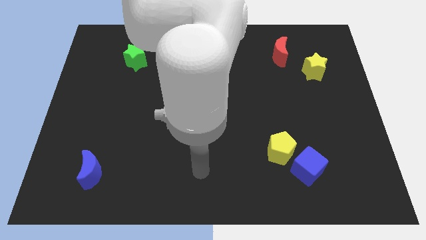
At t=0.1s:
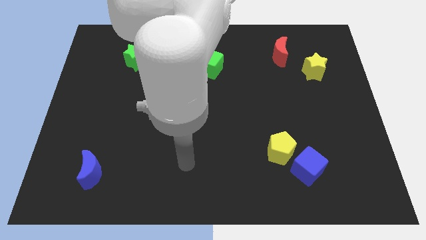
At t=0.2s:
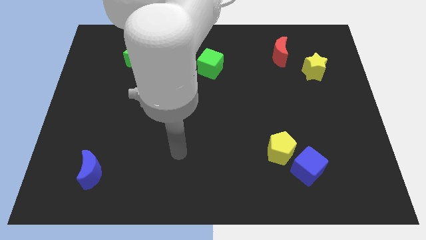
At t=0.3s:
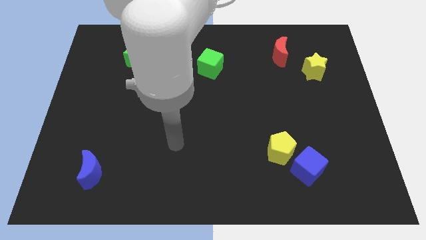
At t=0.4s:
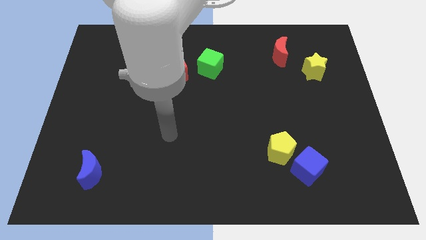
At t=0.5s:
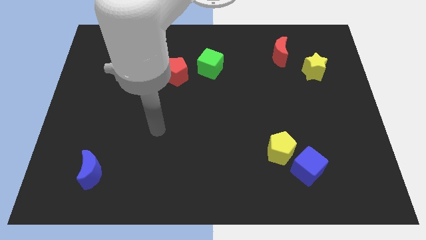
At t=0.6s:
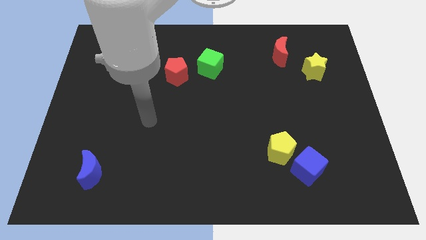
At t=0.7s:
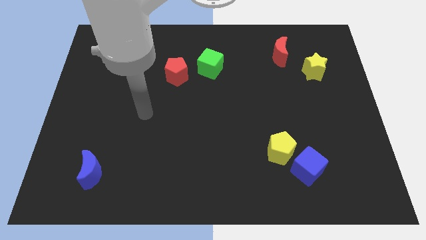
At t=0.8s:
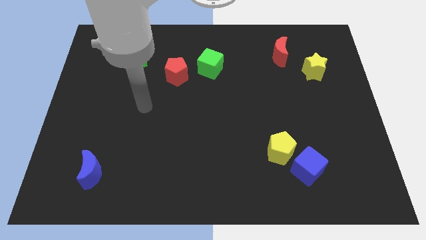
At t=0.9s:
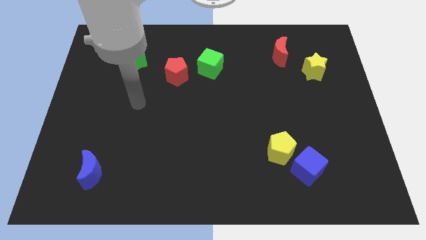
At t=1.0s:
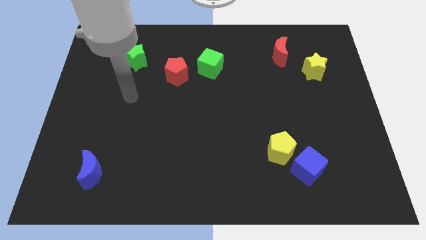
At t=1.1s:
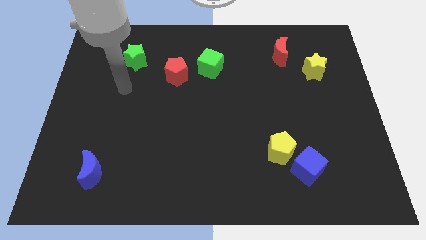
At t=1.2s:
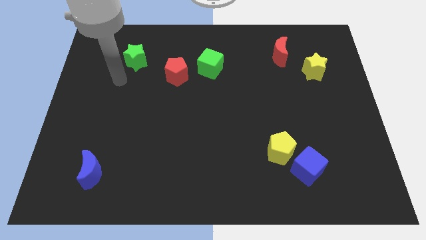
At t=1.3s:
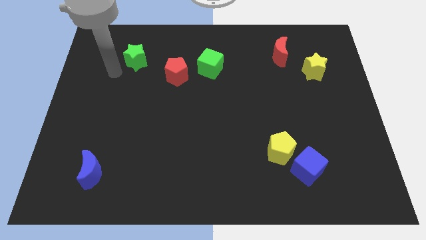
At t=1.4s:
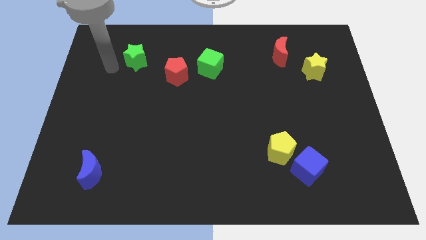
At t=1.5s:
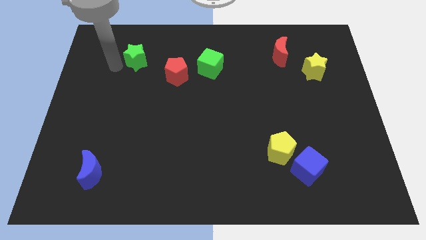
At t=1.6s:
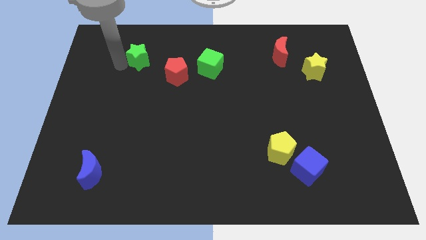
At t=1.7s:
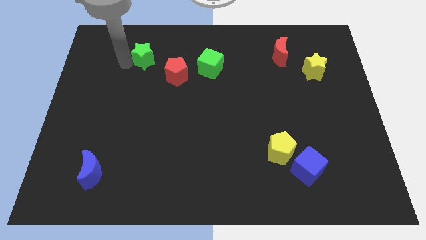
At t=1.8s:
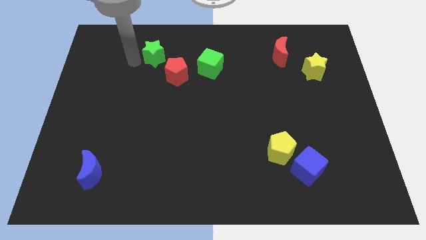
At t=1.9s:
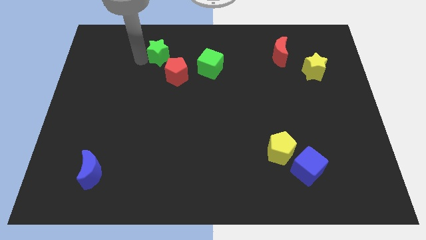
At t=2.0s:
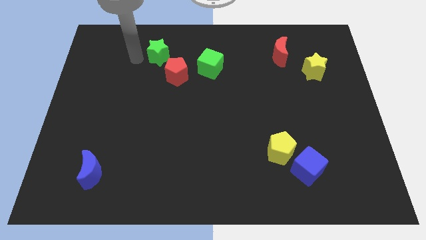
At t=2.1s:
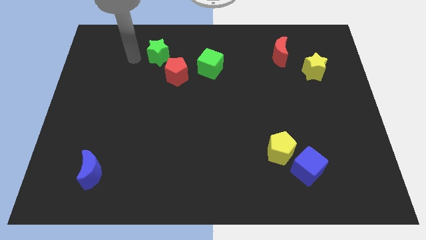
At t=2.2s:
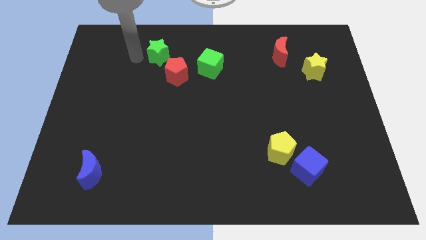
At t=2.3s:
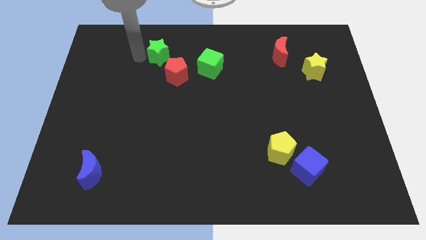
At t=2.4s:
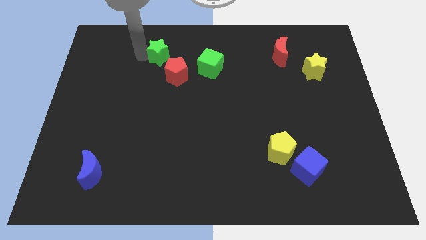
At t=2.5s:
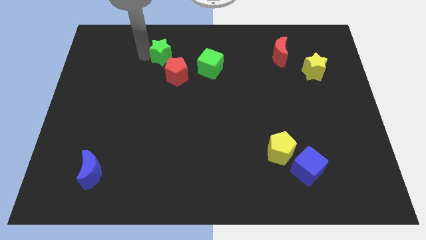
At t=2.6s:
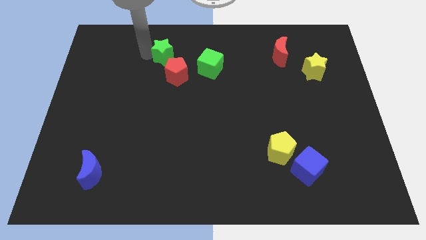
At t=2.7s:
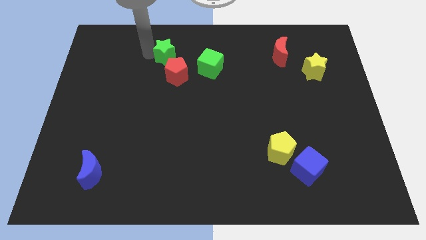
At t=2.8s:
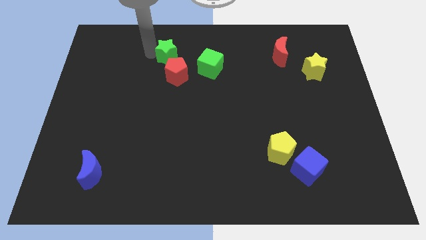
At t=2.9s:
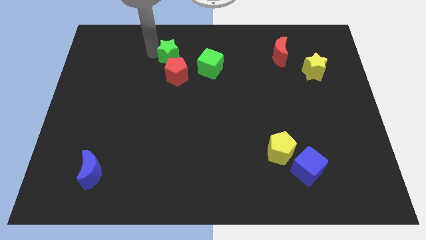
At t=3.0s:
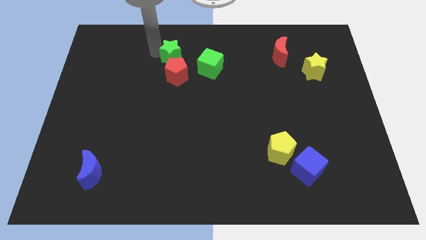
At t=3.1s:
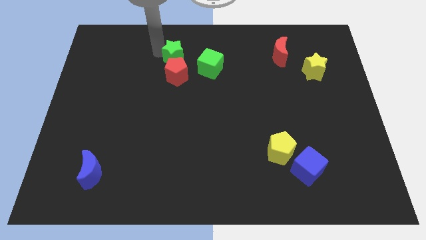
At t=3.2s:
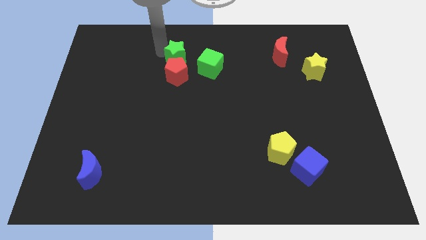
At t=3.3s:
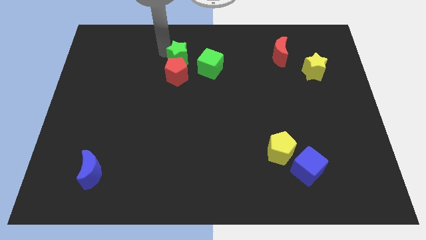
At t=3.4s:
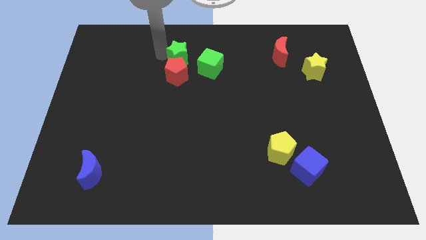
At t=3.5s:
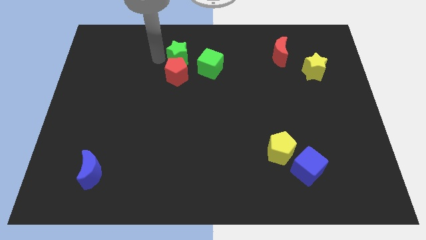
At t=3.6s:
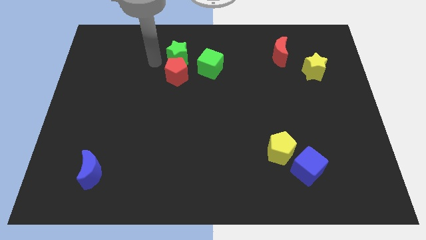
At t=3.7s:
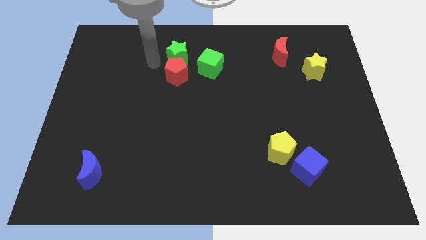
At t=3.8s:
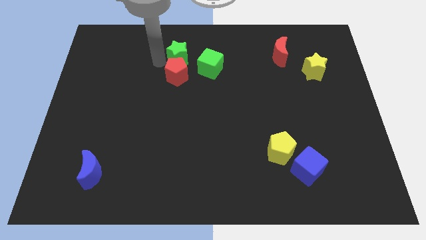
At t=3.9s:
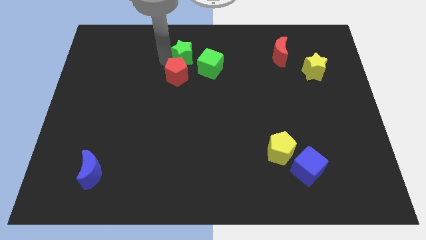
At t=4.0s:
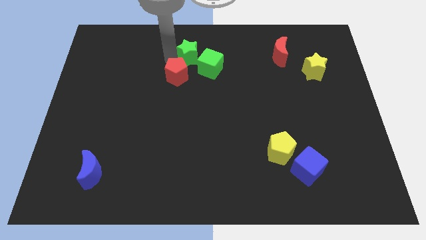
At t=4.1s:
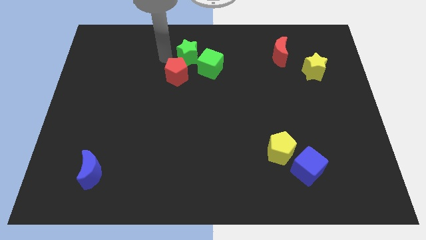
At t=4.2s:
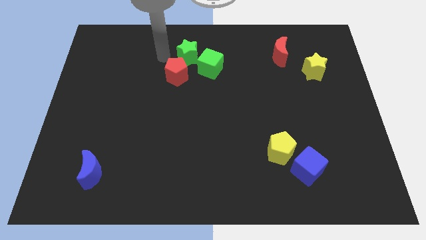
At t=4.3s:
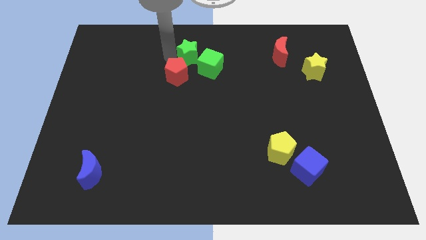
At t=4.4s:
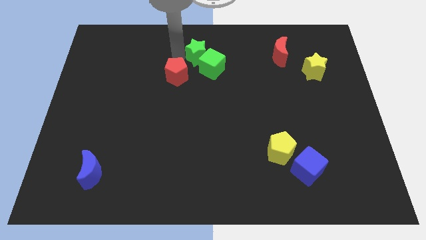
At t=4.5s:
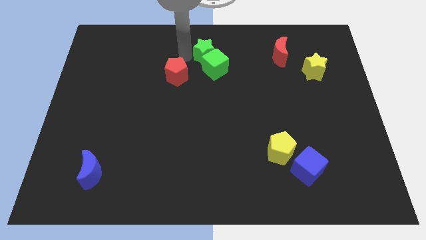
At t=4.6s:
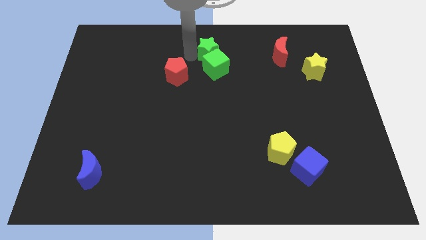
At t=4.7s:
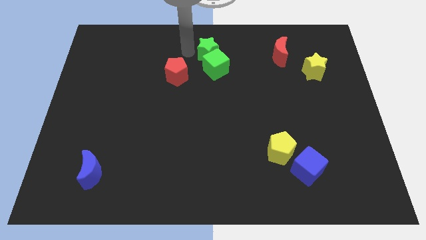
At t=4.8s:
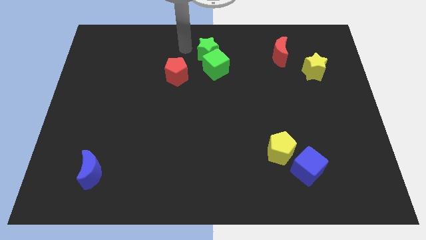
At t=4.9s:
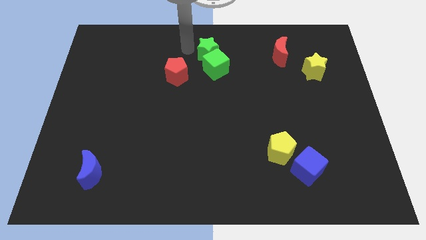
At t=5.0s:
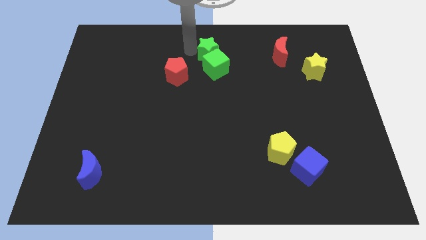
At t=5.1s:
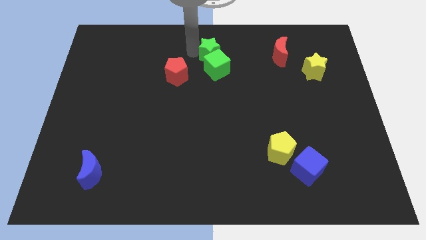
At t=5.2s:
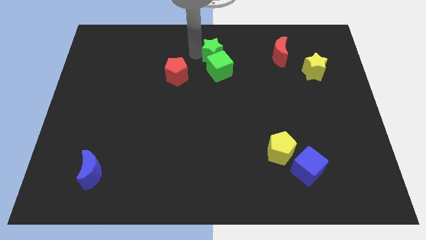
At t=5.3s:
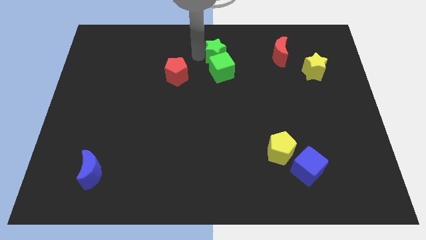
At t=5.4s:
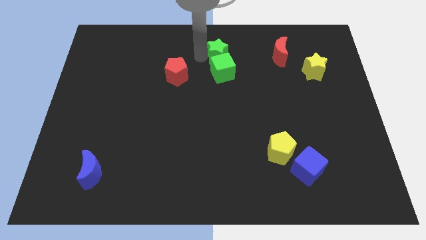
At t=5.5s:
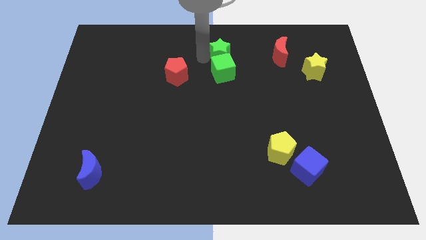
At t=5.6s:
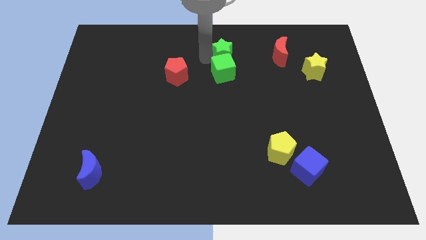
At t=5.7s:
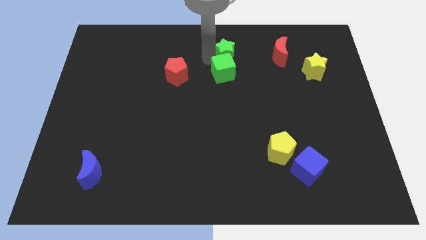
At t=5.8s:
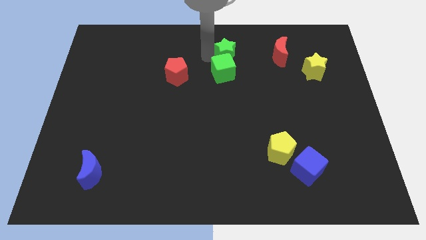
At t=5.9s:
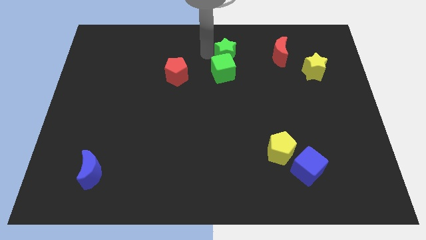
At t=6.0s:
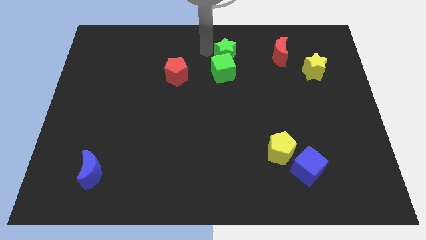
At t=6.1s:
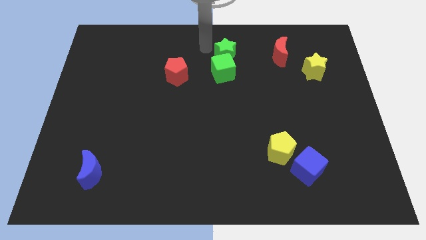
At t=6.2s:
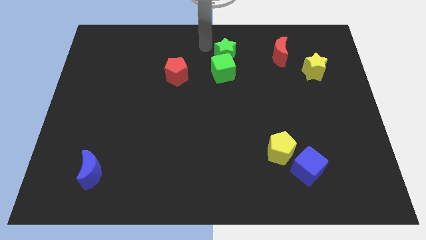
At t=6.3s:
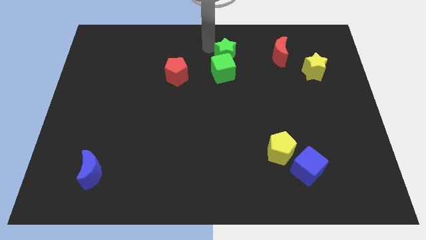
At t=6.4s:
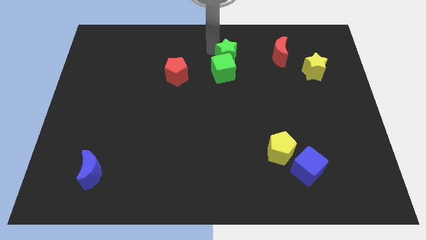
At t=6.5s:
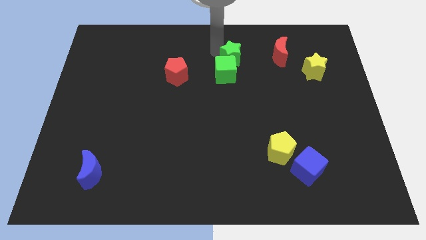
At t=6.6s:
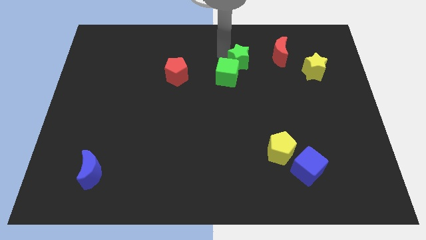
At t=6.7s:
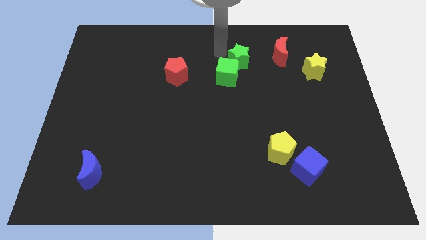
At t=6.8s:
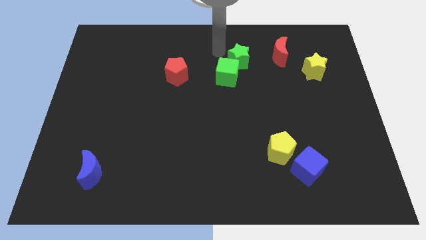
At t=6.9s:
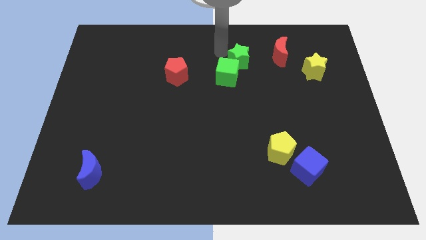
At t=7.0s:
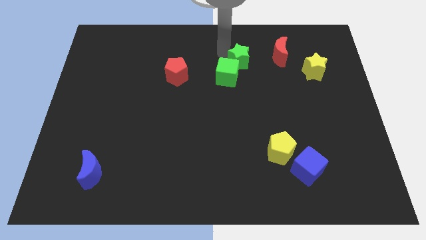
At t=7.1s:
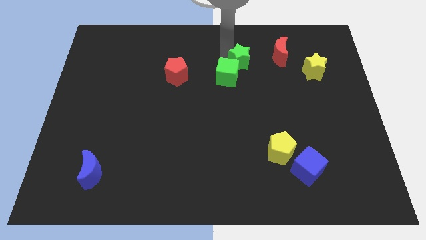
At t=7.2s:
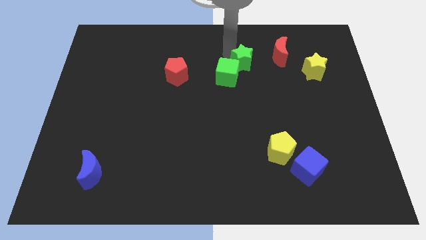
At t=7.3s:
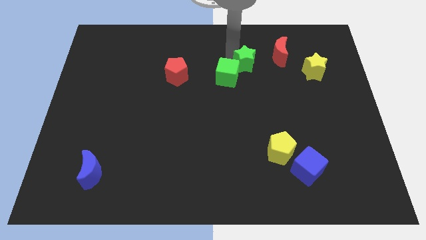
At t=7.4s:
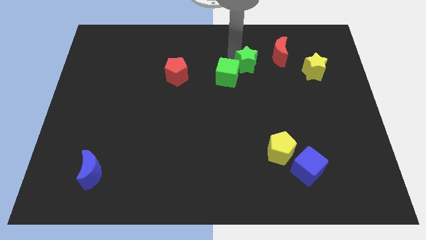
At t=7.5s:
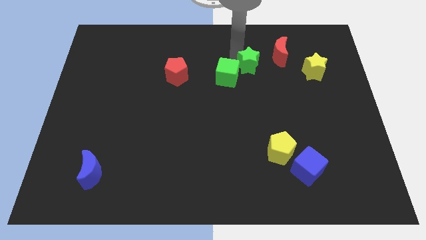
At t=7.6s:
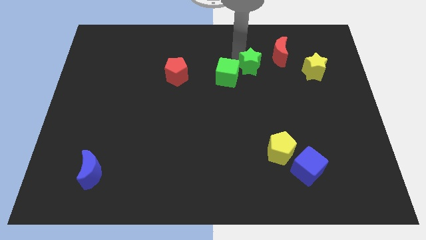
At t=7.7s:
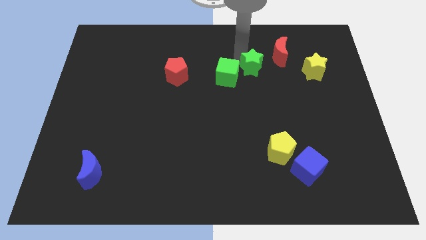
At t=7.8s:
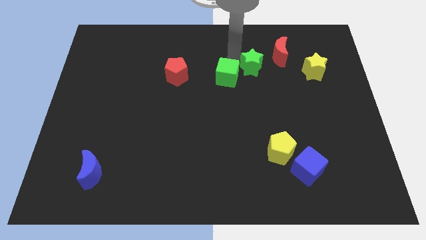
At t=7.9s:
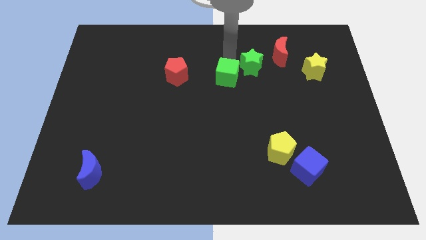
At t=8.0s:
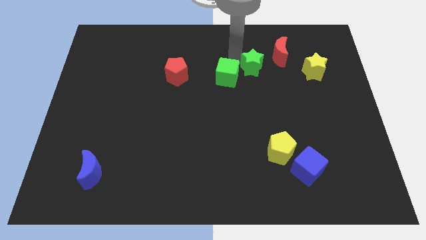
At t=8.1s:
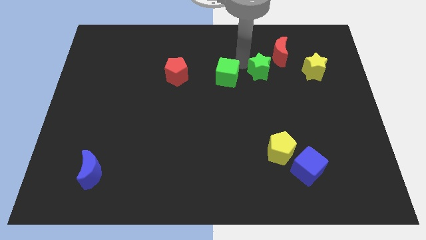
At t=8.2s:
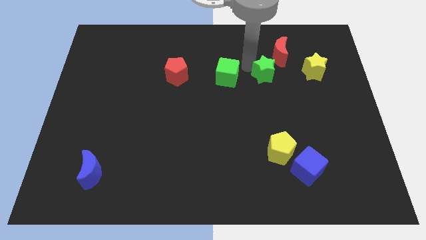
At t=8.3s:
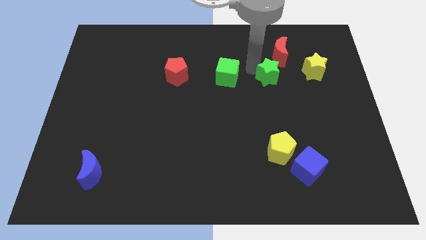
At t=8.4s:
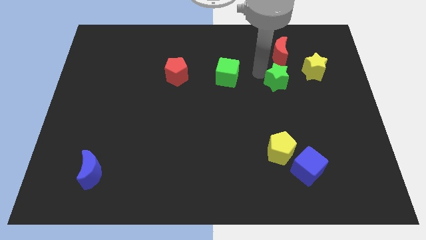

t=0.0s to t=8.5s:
move the green star to the bottom left of the yellow star

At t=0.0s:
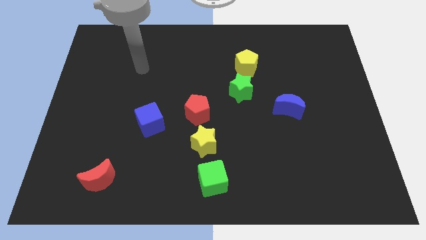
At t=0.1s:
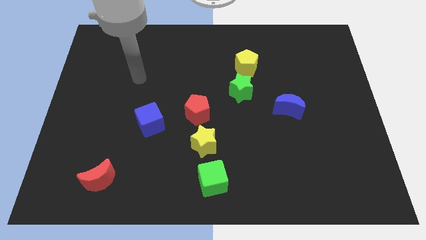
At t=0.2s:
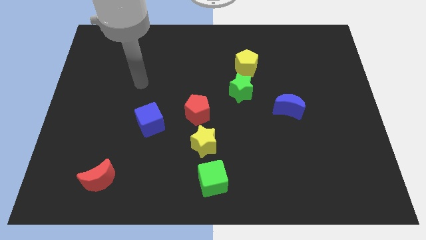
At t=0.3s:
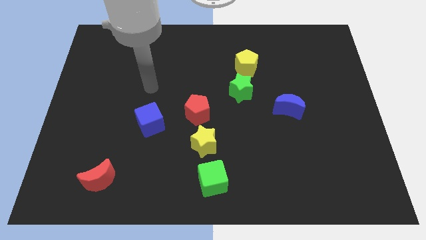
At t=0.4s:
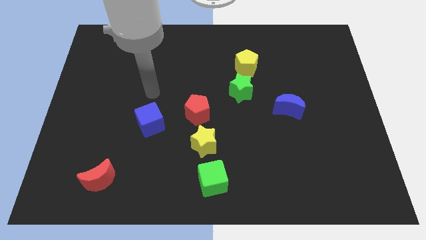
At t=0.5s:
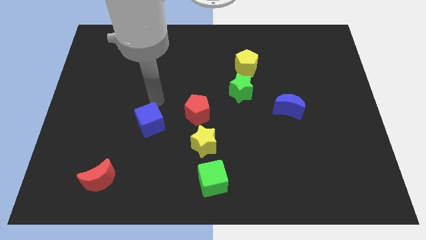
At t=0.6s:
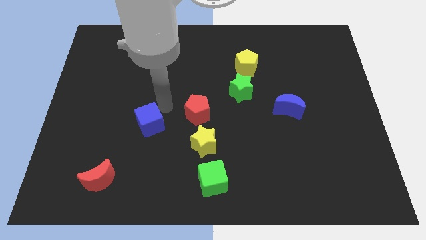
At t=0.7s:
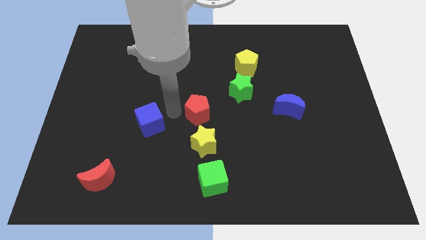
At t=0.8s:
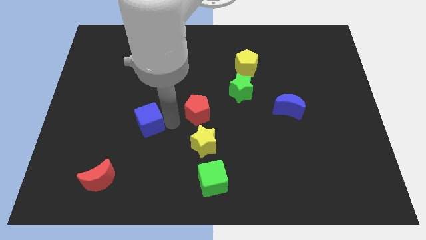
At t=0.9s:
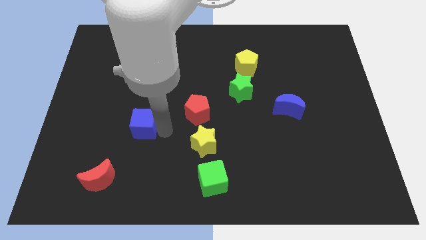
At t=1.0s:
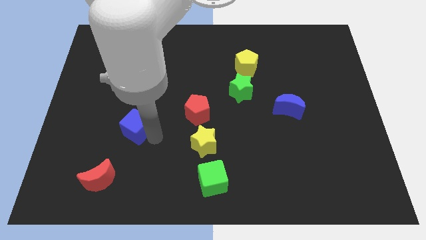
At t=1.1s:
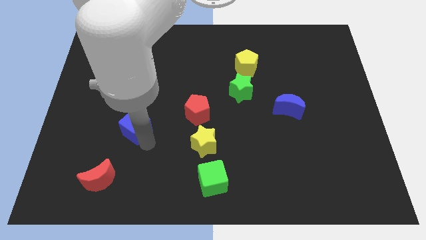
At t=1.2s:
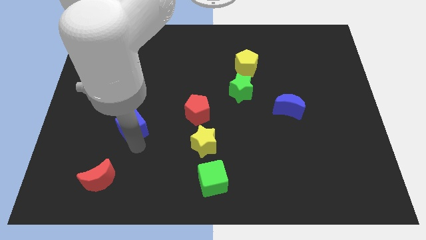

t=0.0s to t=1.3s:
push the red moon to the bottom of the blue cube
